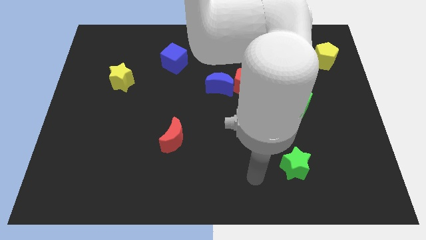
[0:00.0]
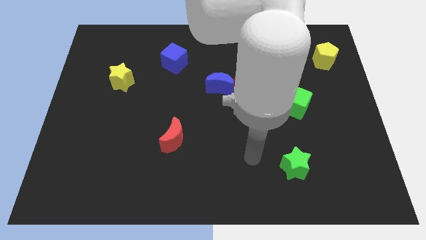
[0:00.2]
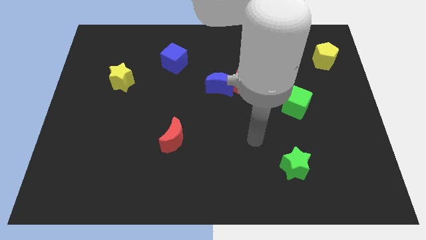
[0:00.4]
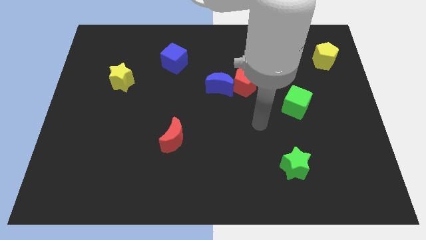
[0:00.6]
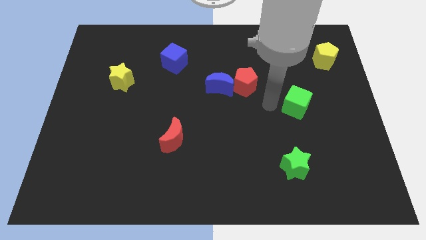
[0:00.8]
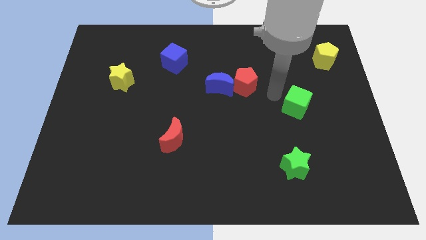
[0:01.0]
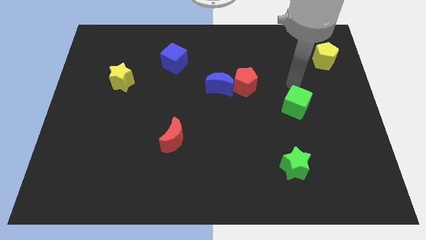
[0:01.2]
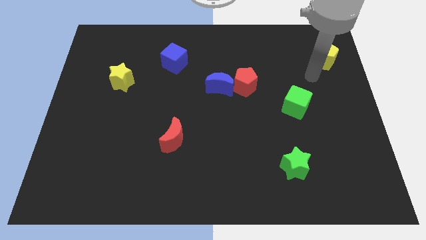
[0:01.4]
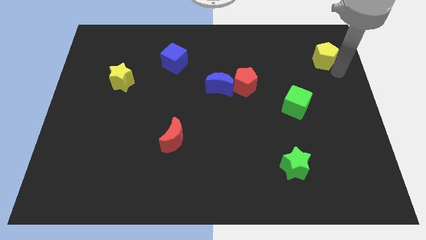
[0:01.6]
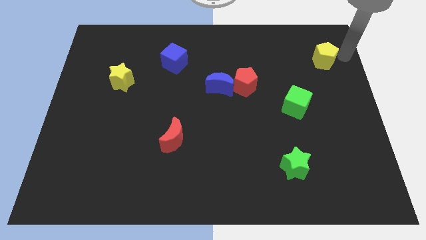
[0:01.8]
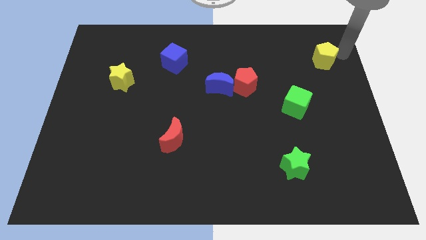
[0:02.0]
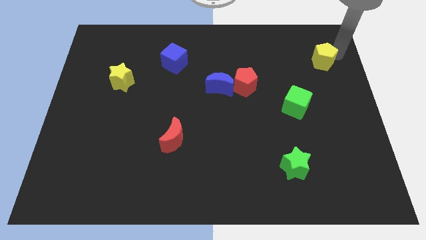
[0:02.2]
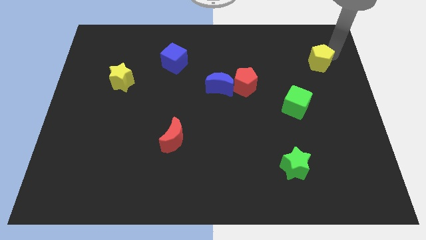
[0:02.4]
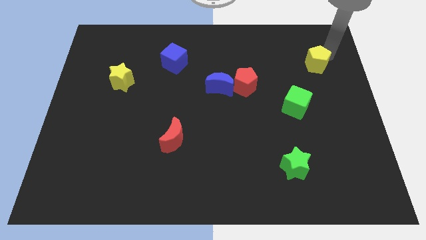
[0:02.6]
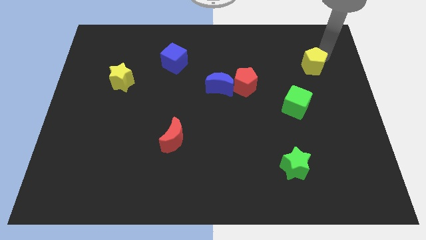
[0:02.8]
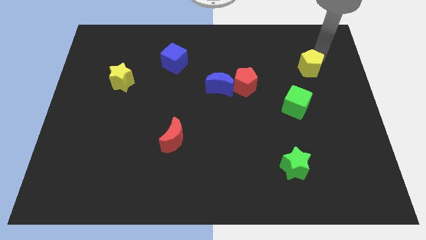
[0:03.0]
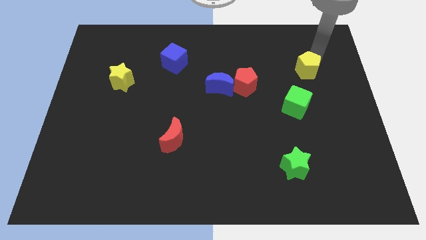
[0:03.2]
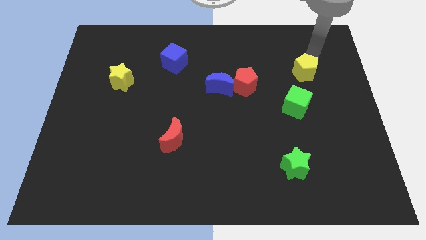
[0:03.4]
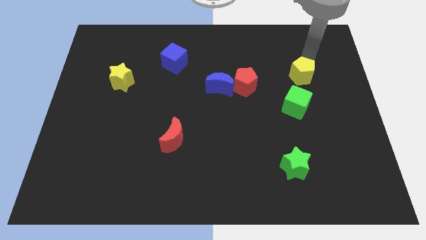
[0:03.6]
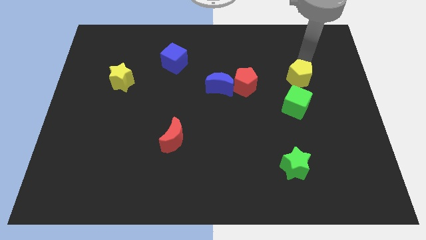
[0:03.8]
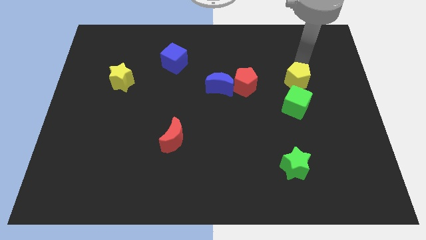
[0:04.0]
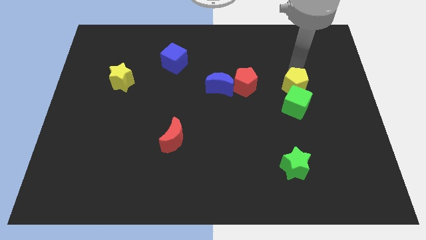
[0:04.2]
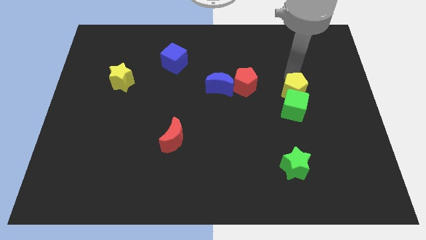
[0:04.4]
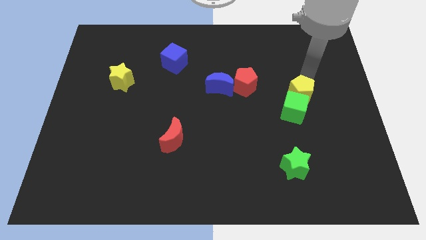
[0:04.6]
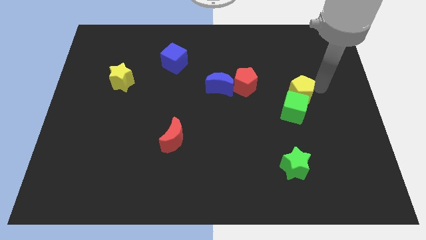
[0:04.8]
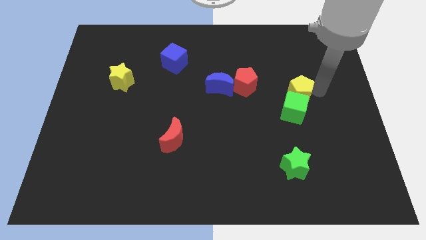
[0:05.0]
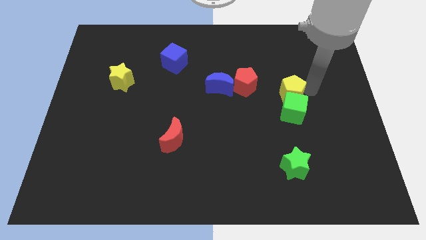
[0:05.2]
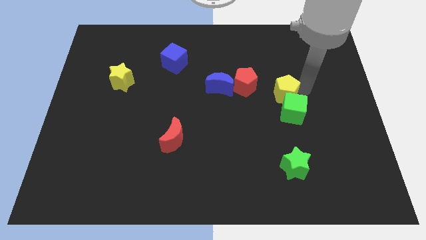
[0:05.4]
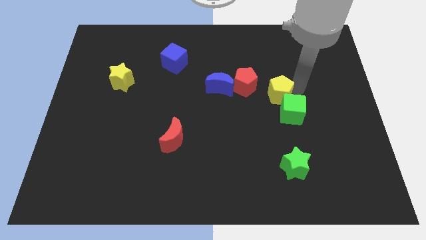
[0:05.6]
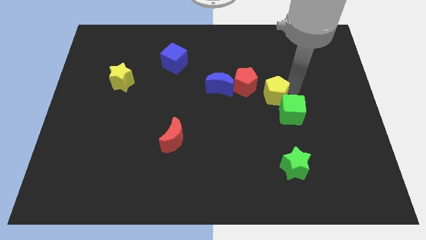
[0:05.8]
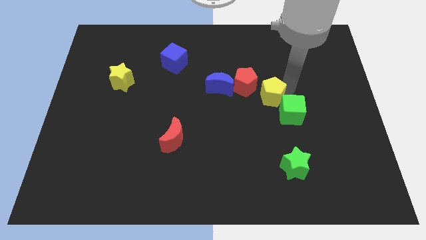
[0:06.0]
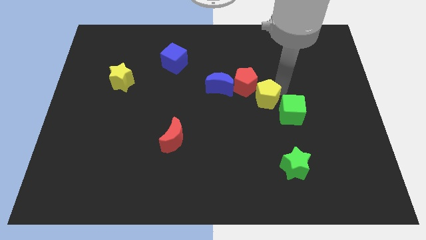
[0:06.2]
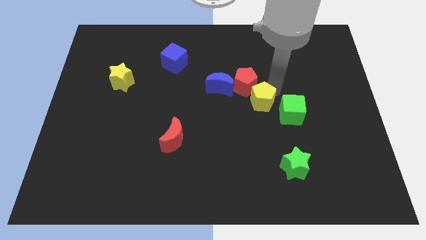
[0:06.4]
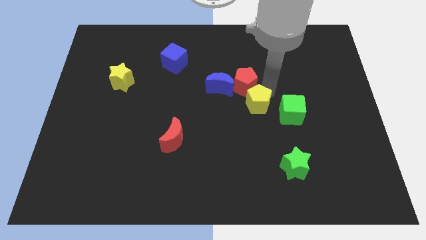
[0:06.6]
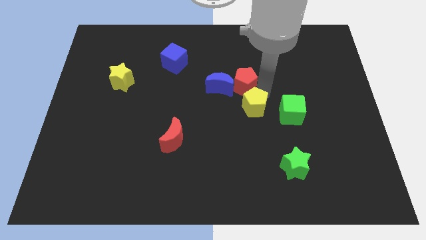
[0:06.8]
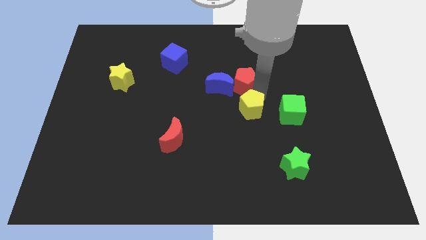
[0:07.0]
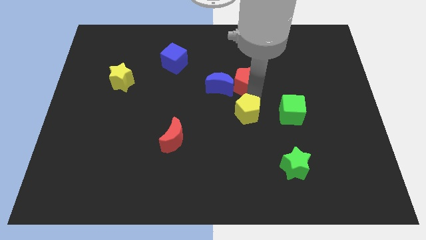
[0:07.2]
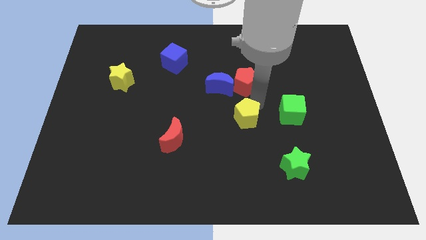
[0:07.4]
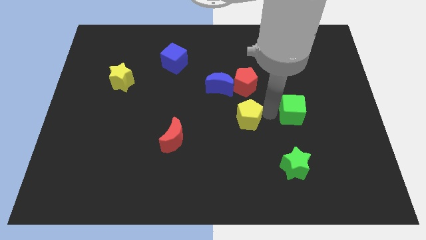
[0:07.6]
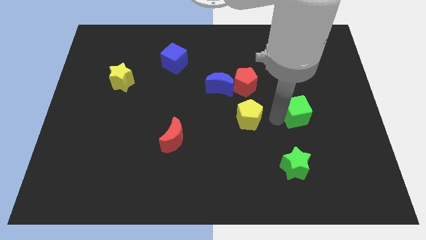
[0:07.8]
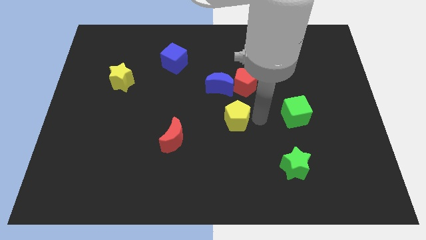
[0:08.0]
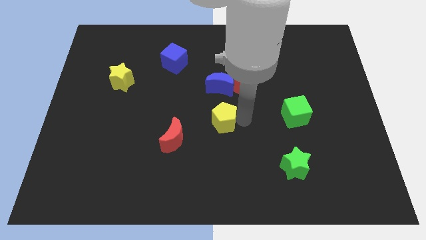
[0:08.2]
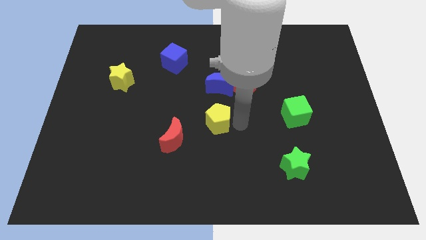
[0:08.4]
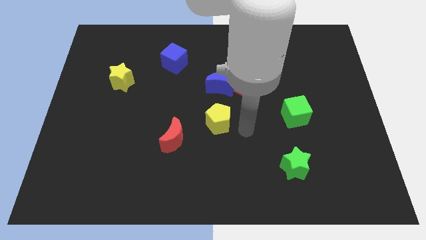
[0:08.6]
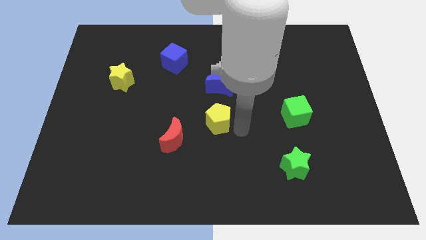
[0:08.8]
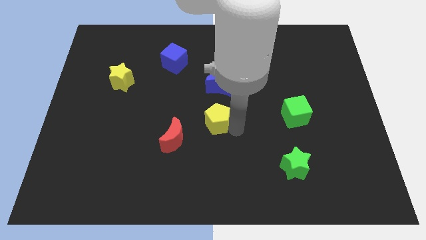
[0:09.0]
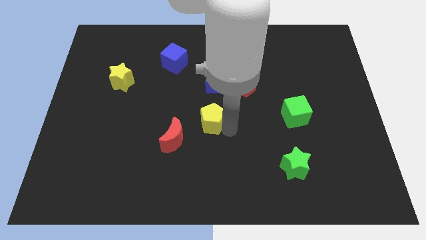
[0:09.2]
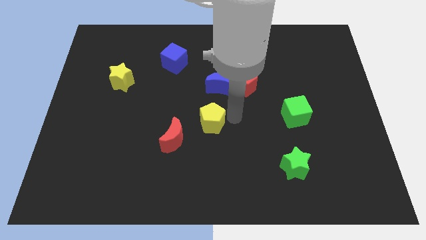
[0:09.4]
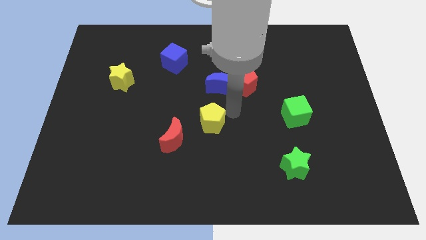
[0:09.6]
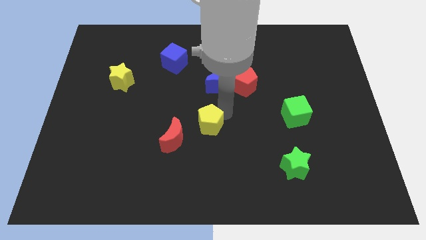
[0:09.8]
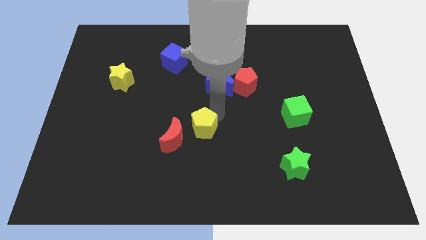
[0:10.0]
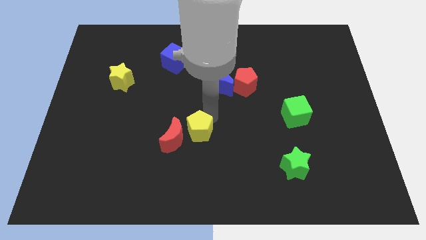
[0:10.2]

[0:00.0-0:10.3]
push the yellow pentagon to the red moon

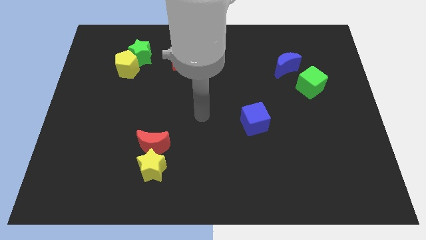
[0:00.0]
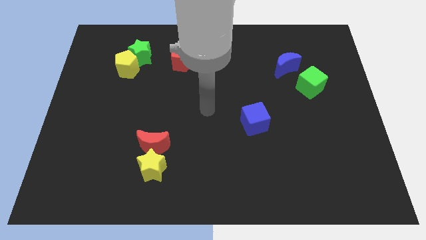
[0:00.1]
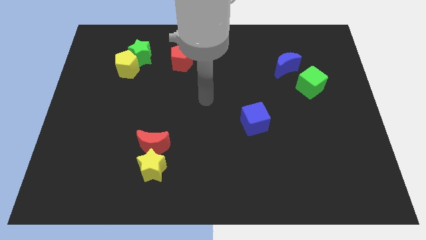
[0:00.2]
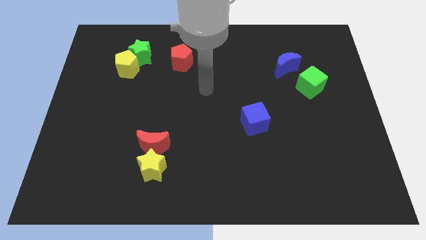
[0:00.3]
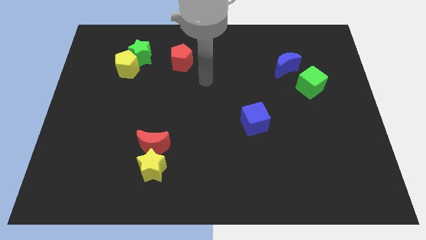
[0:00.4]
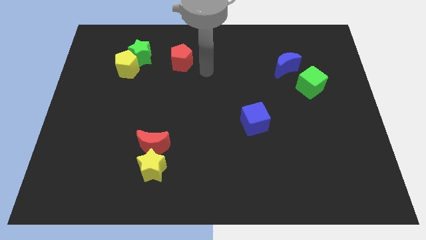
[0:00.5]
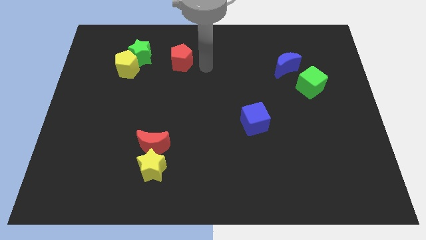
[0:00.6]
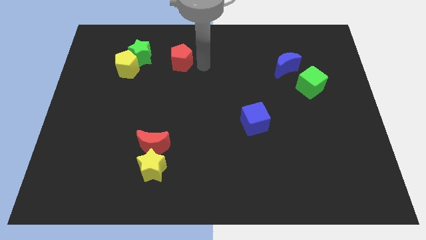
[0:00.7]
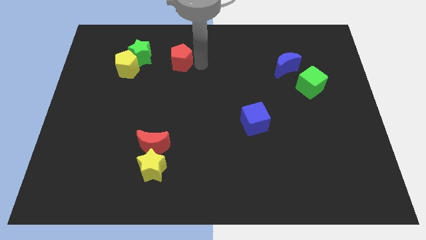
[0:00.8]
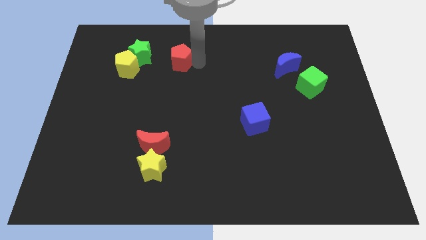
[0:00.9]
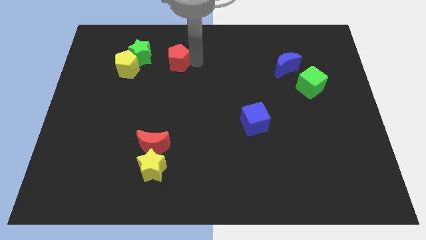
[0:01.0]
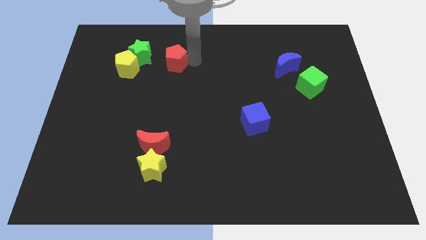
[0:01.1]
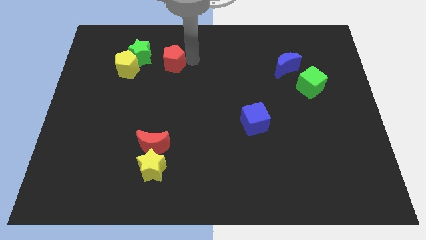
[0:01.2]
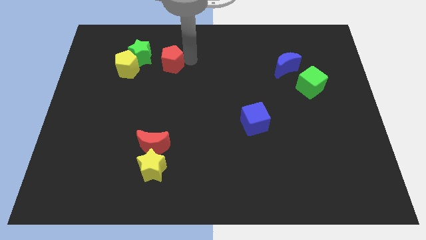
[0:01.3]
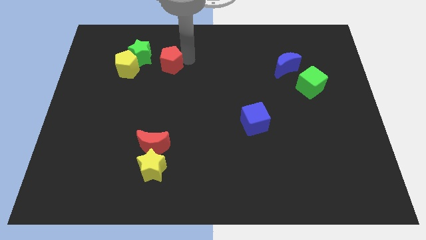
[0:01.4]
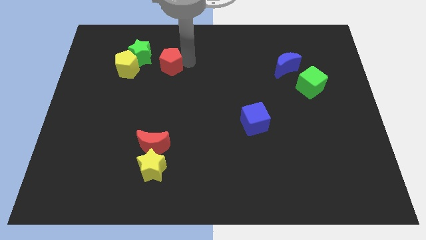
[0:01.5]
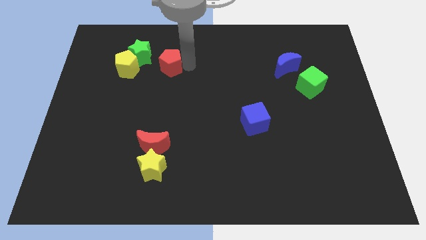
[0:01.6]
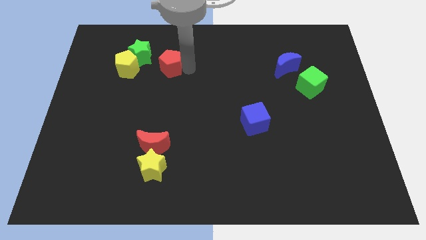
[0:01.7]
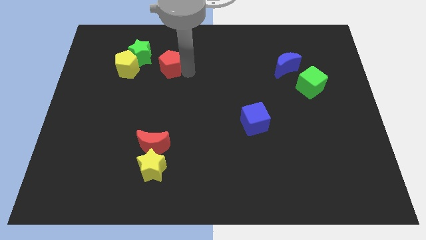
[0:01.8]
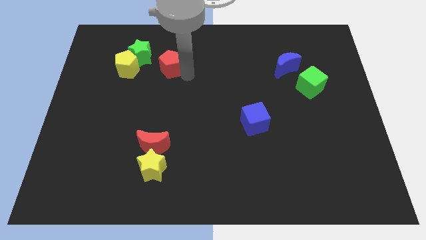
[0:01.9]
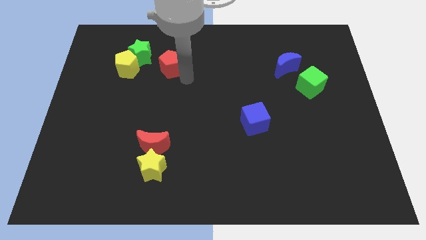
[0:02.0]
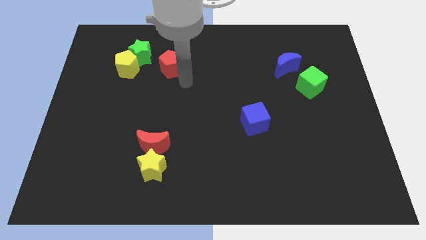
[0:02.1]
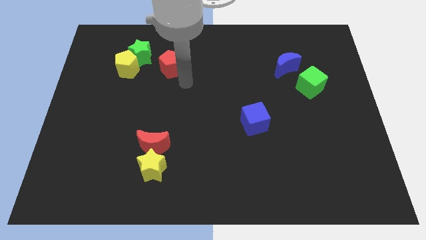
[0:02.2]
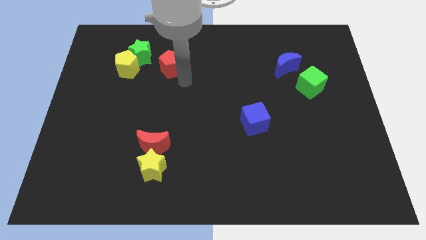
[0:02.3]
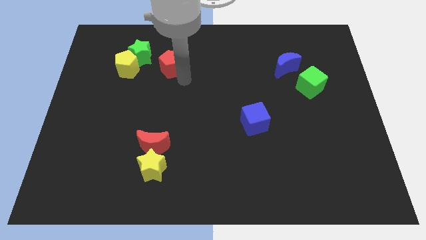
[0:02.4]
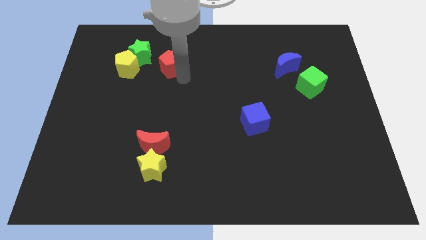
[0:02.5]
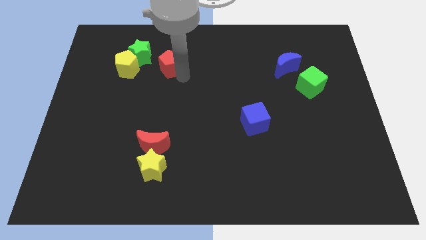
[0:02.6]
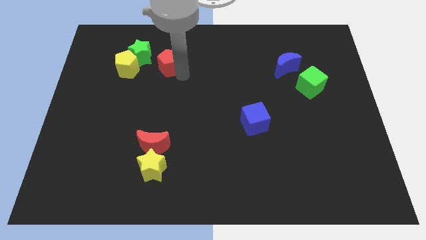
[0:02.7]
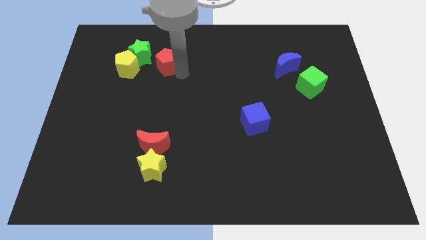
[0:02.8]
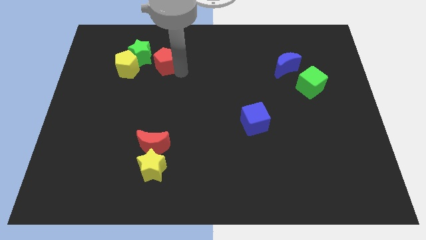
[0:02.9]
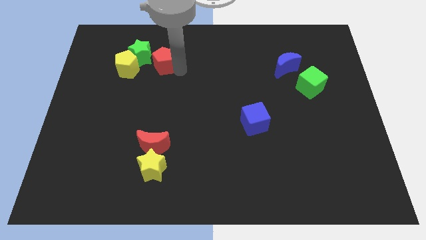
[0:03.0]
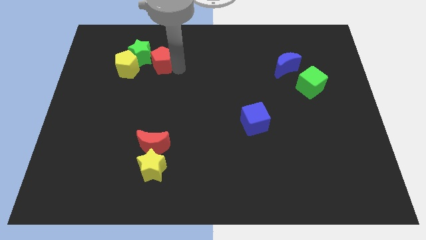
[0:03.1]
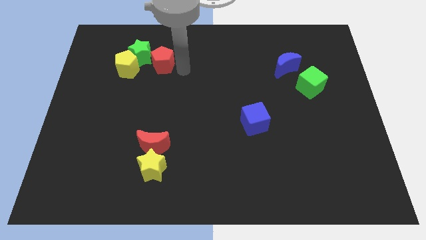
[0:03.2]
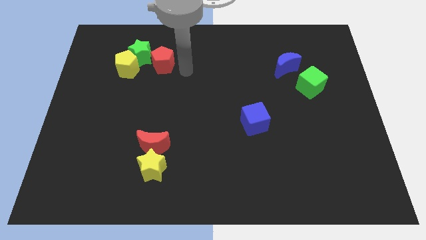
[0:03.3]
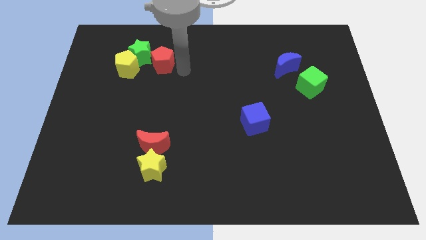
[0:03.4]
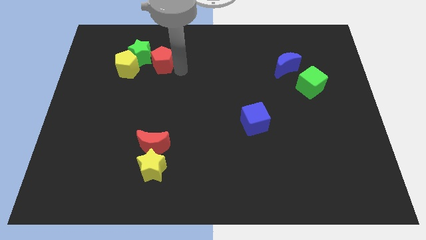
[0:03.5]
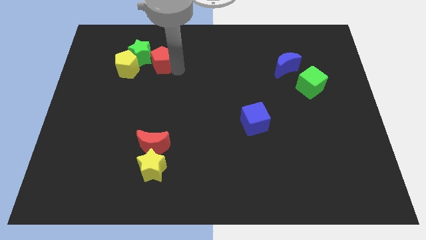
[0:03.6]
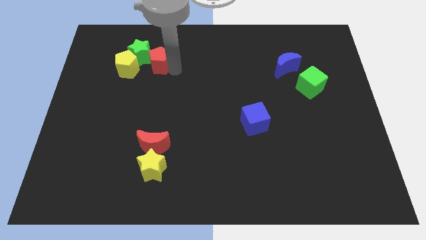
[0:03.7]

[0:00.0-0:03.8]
move the red pentagon towards the green star
